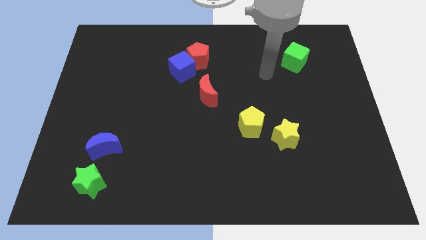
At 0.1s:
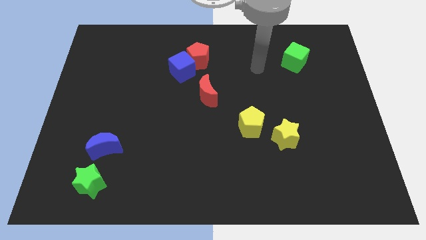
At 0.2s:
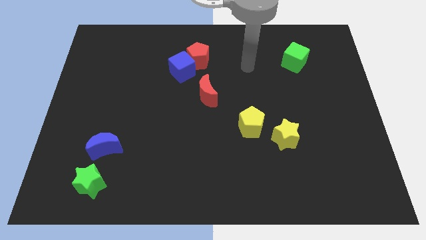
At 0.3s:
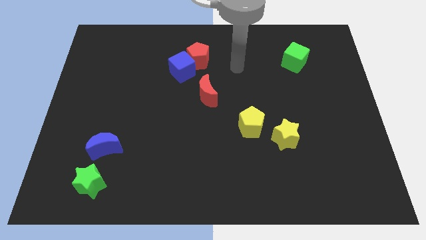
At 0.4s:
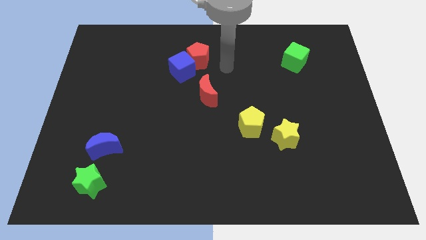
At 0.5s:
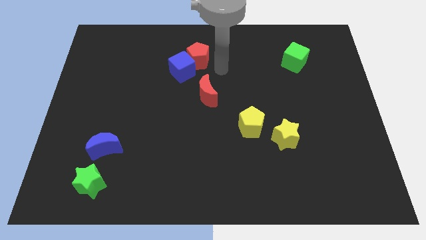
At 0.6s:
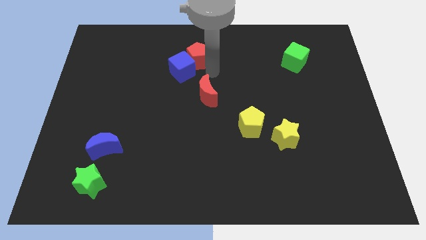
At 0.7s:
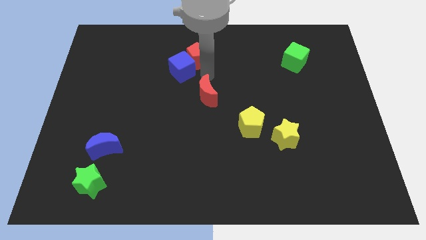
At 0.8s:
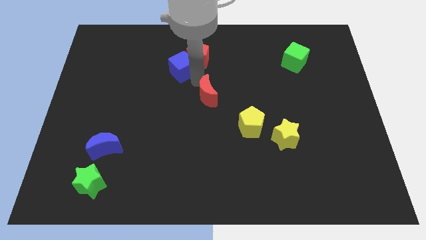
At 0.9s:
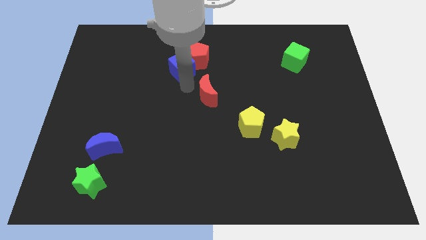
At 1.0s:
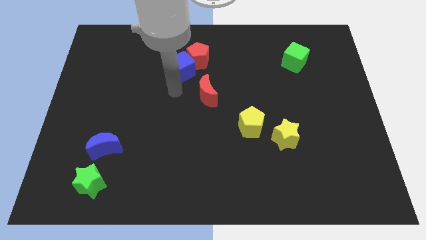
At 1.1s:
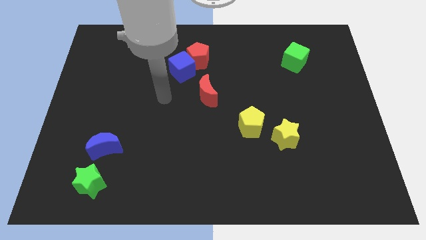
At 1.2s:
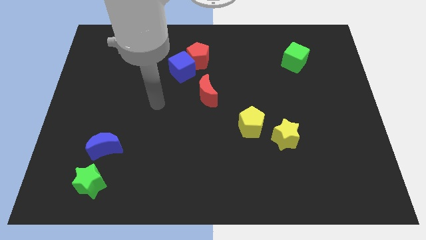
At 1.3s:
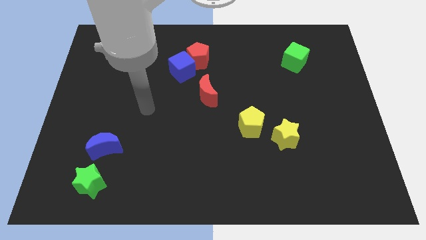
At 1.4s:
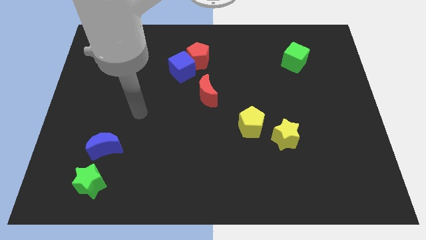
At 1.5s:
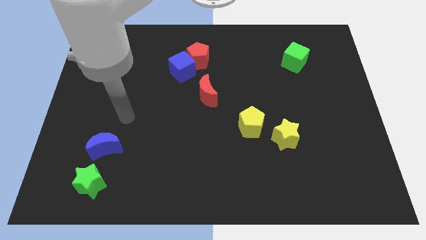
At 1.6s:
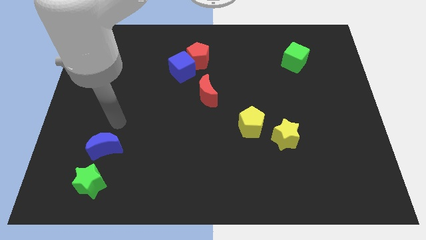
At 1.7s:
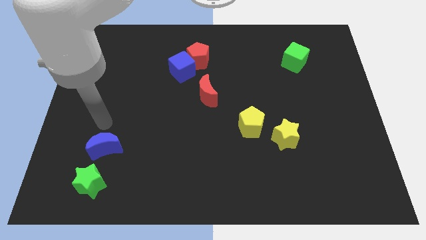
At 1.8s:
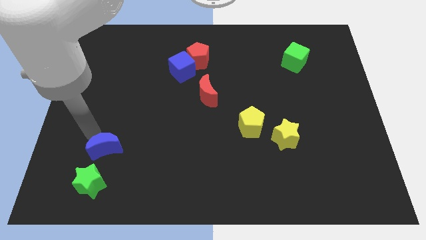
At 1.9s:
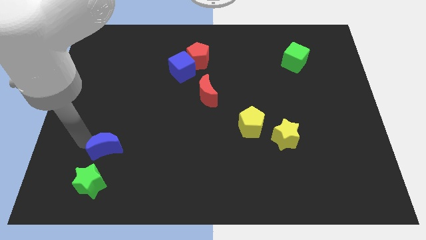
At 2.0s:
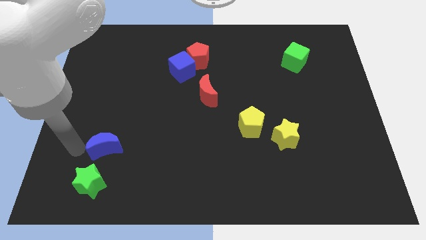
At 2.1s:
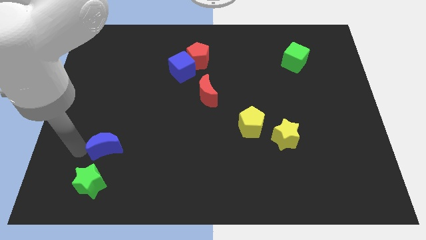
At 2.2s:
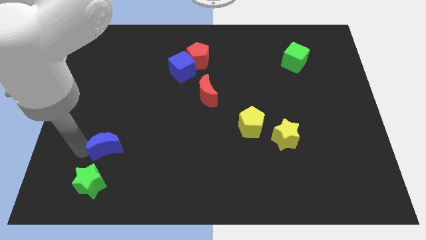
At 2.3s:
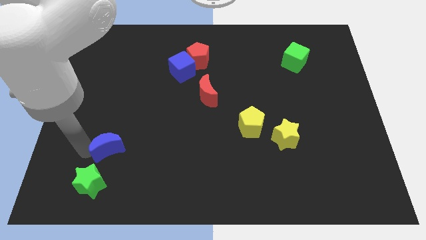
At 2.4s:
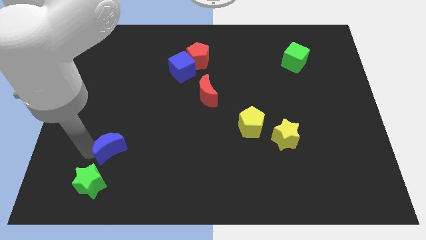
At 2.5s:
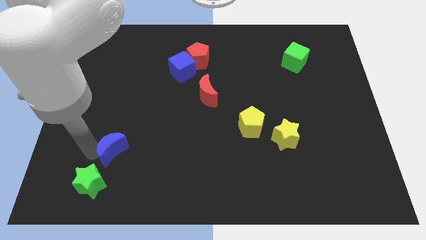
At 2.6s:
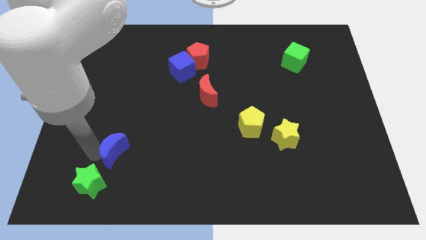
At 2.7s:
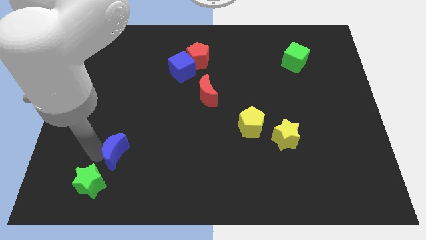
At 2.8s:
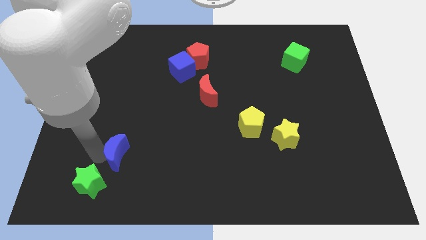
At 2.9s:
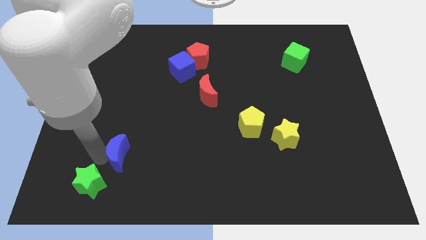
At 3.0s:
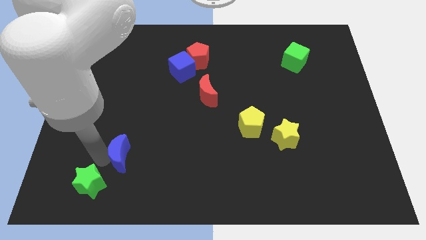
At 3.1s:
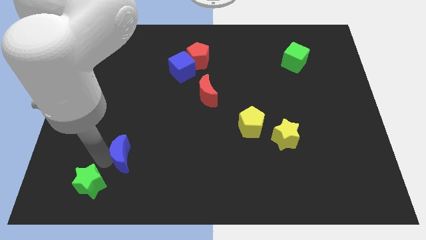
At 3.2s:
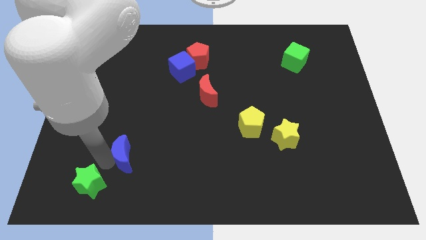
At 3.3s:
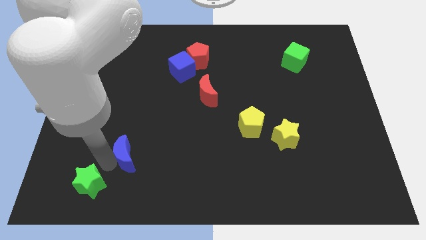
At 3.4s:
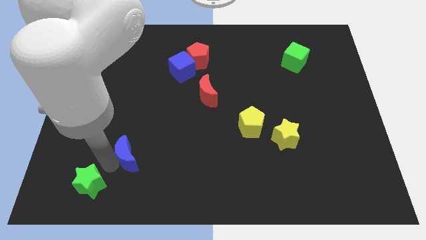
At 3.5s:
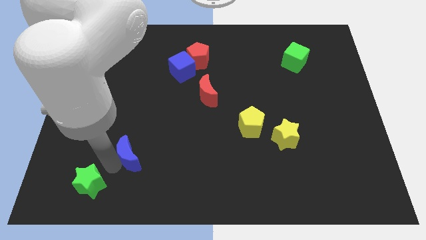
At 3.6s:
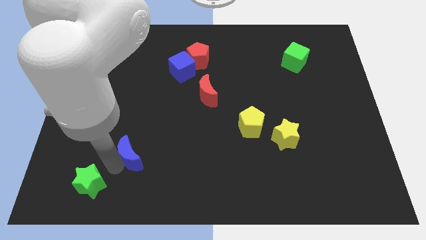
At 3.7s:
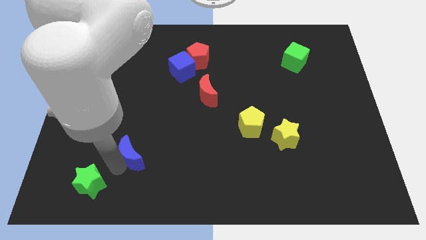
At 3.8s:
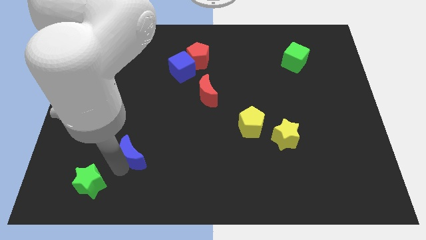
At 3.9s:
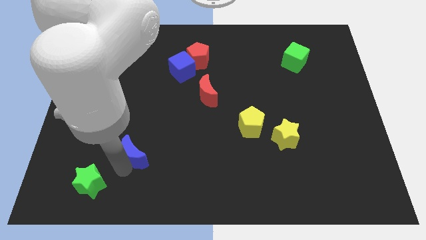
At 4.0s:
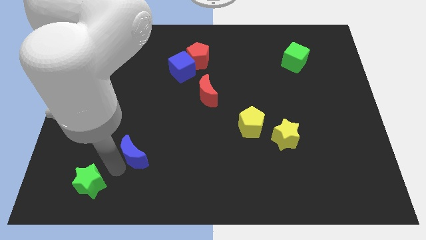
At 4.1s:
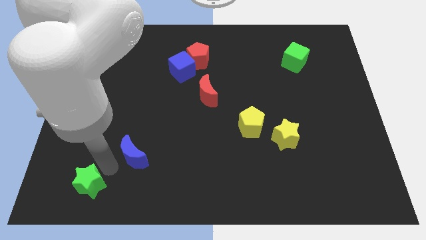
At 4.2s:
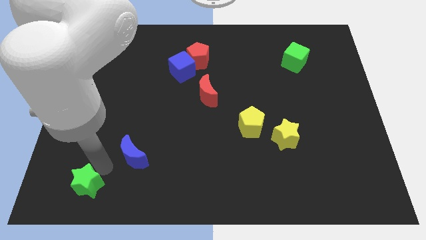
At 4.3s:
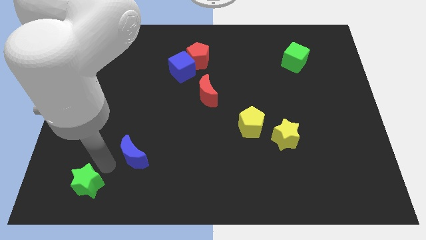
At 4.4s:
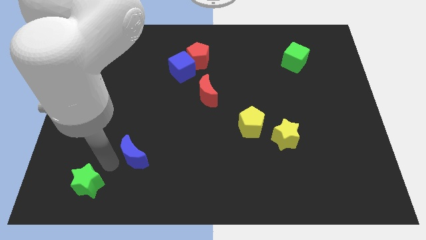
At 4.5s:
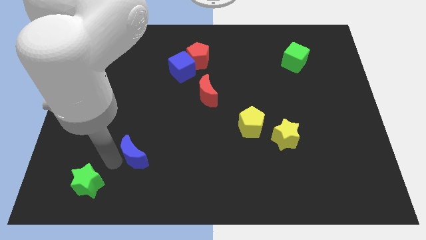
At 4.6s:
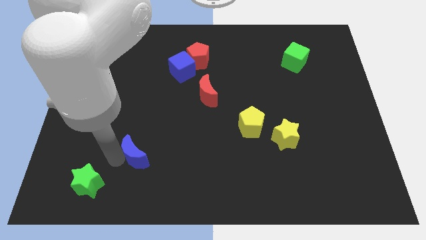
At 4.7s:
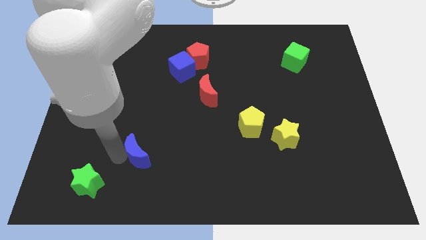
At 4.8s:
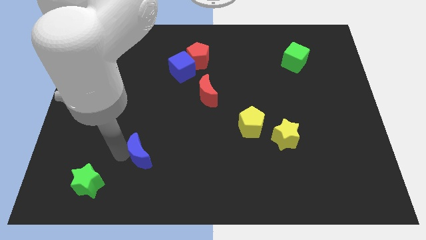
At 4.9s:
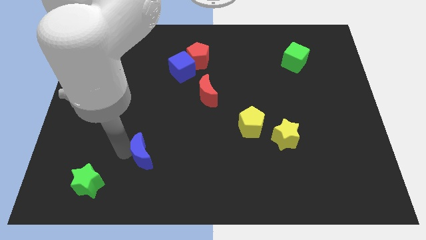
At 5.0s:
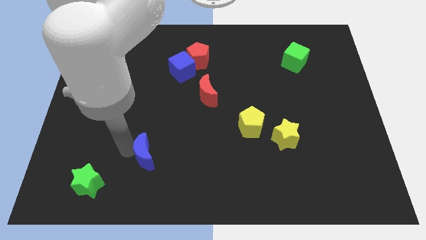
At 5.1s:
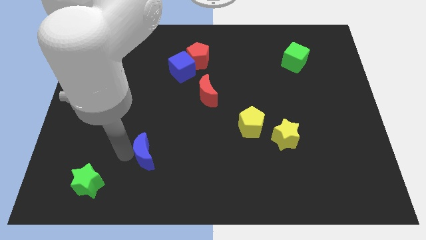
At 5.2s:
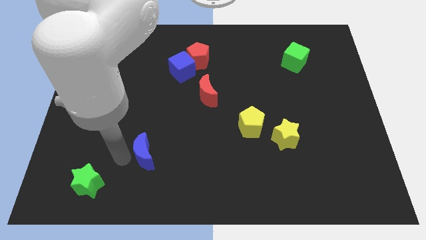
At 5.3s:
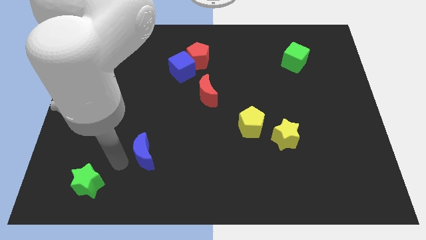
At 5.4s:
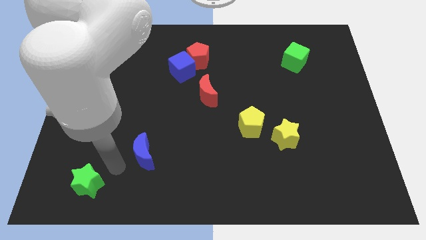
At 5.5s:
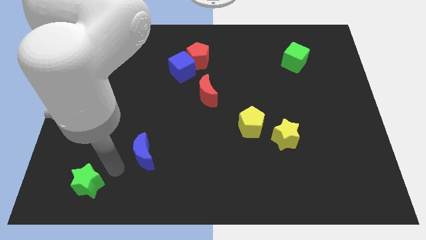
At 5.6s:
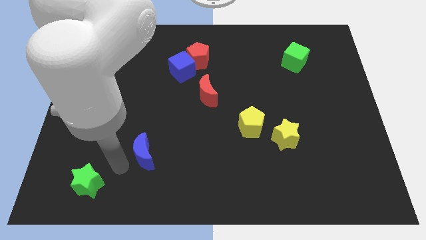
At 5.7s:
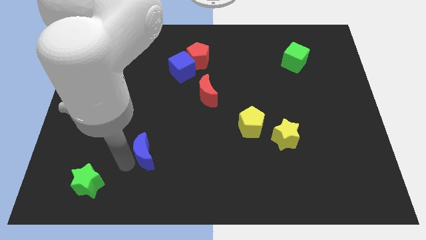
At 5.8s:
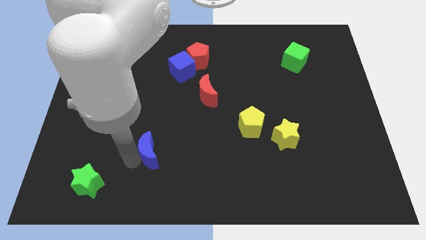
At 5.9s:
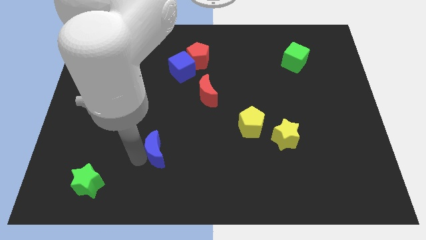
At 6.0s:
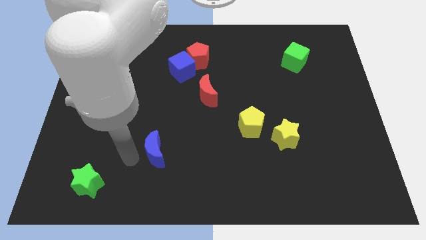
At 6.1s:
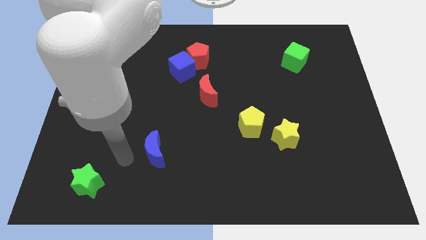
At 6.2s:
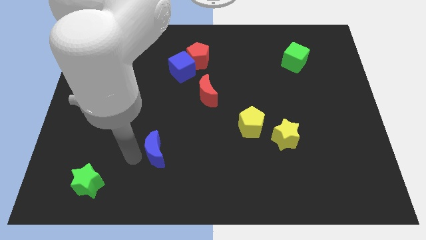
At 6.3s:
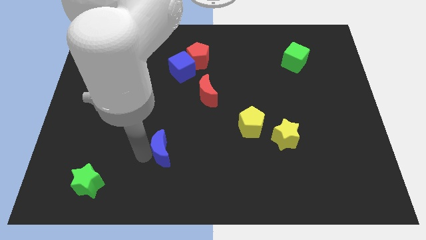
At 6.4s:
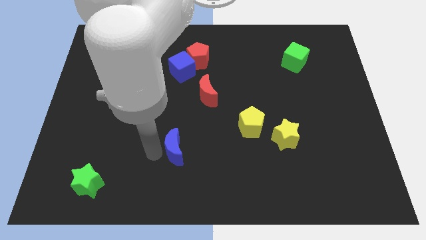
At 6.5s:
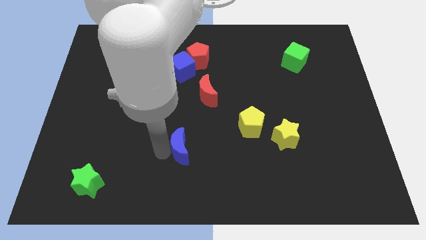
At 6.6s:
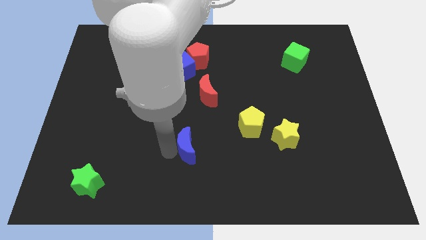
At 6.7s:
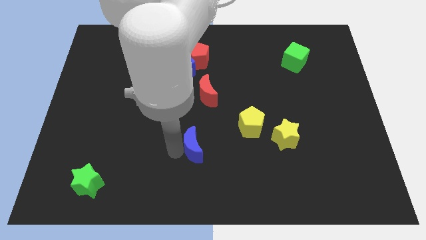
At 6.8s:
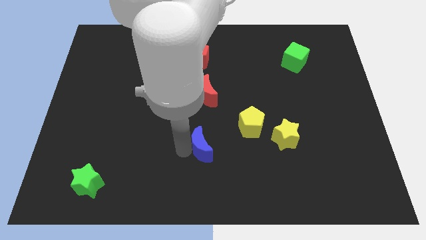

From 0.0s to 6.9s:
slide the blue moon to the right

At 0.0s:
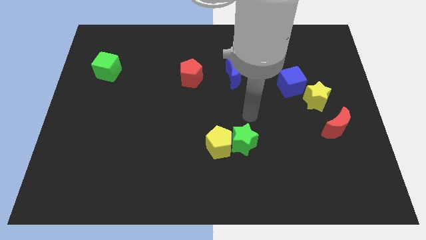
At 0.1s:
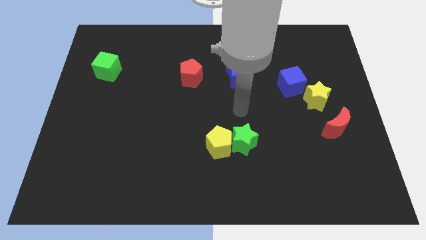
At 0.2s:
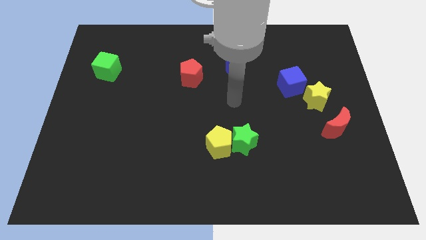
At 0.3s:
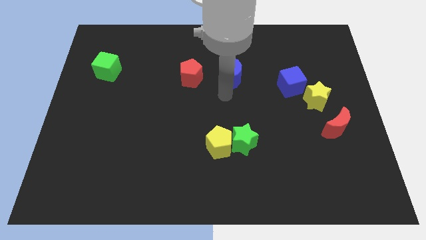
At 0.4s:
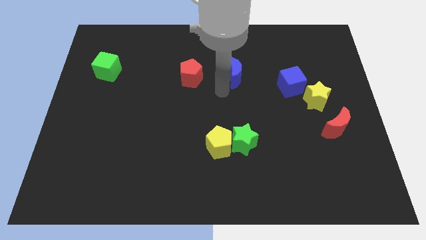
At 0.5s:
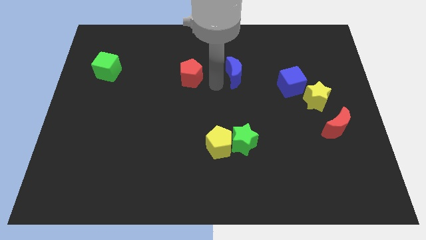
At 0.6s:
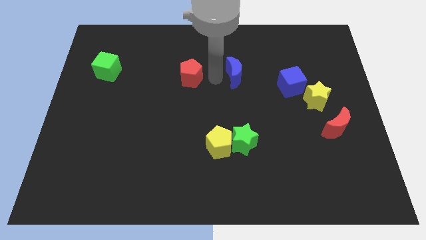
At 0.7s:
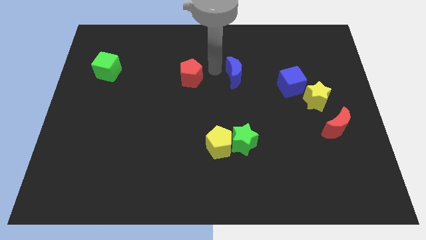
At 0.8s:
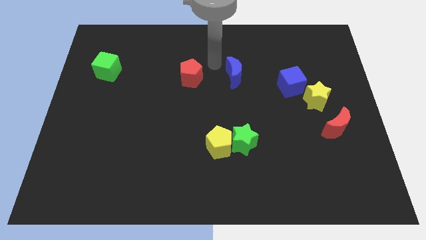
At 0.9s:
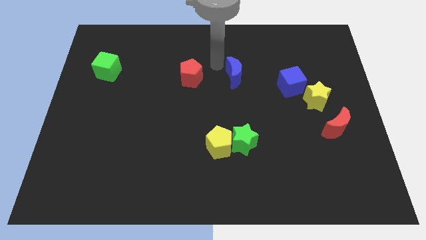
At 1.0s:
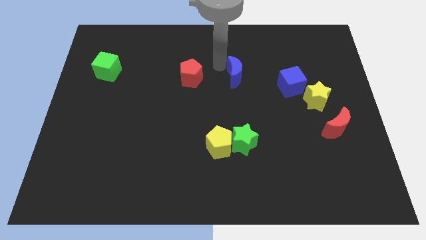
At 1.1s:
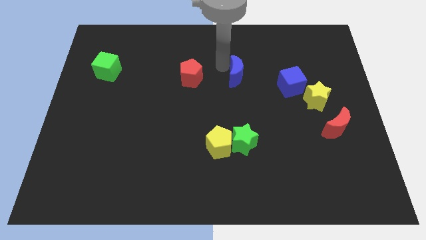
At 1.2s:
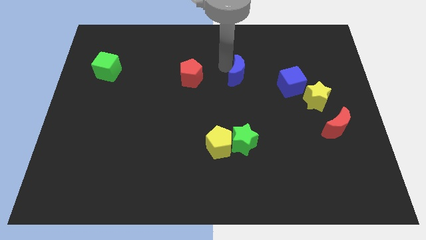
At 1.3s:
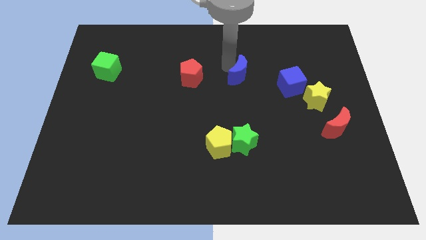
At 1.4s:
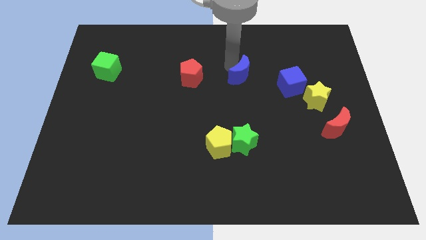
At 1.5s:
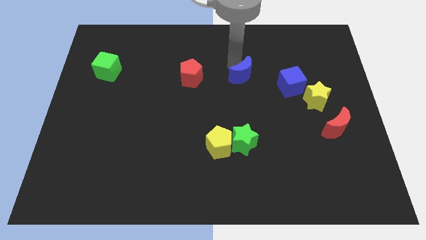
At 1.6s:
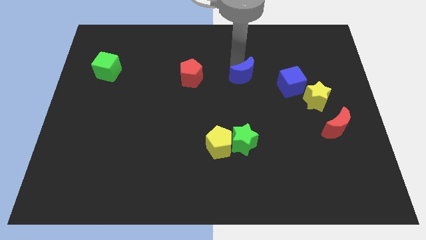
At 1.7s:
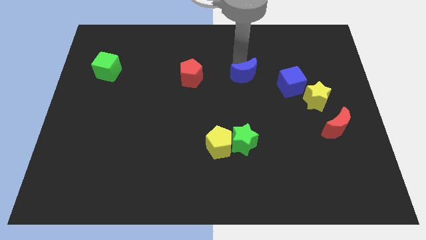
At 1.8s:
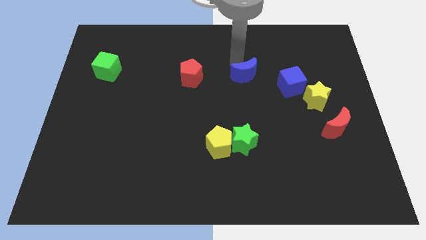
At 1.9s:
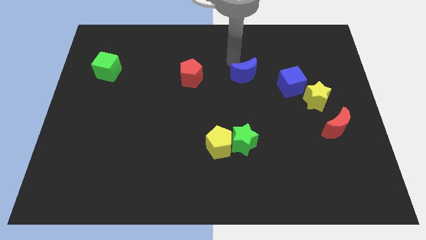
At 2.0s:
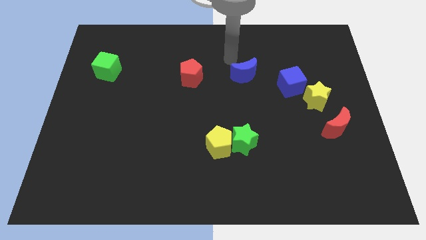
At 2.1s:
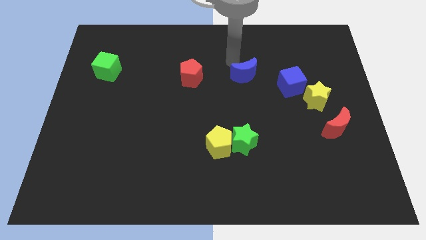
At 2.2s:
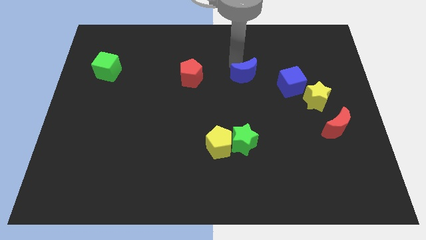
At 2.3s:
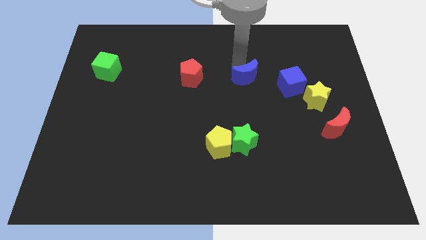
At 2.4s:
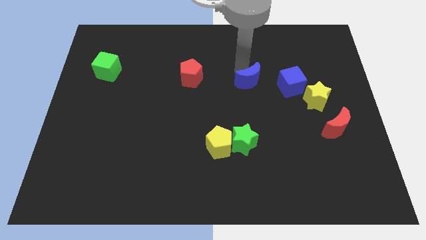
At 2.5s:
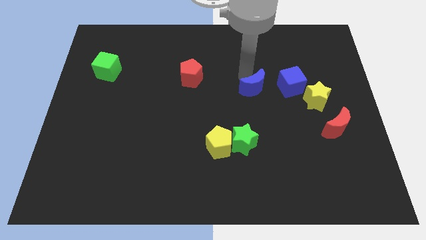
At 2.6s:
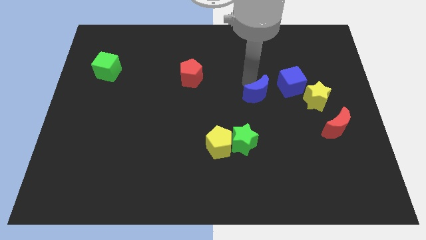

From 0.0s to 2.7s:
slide the blue moon somewhat diagonally downwards and to the right
